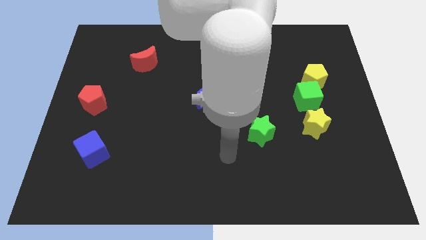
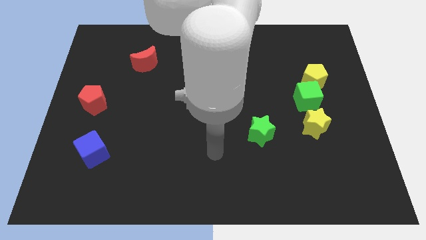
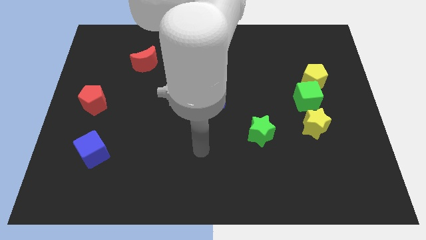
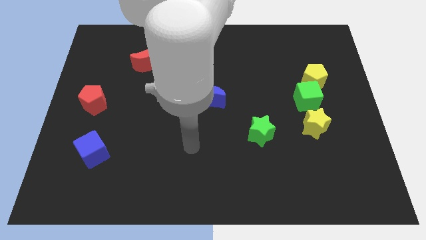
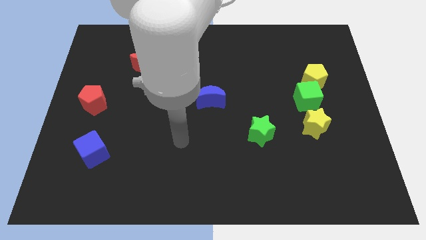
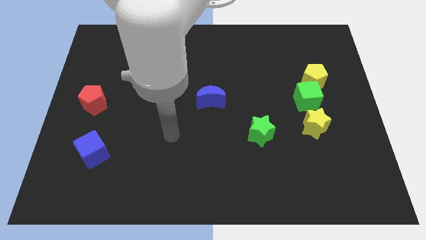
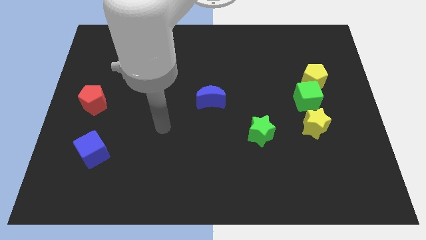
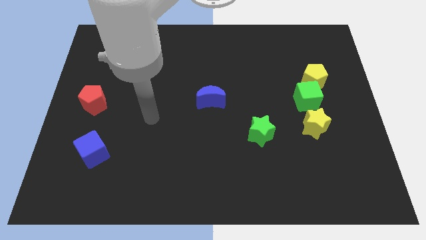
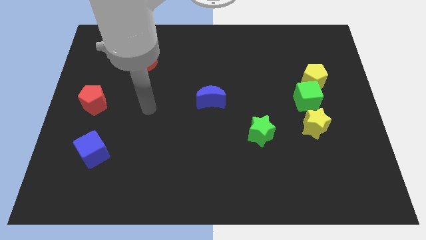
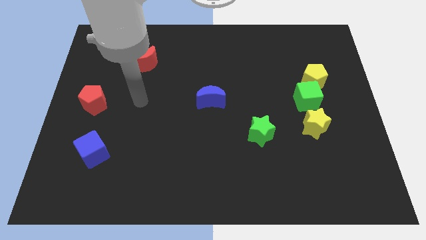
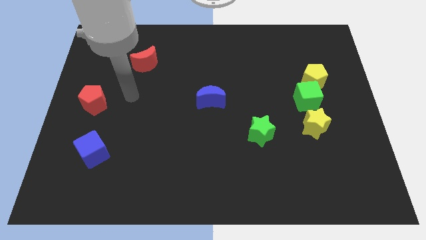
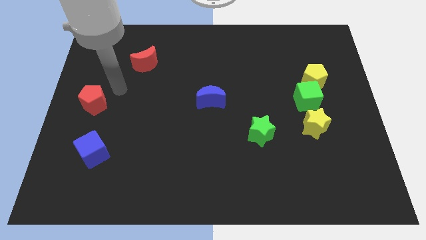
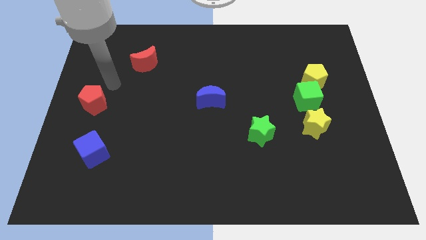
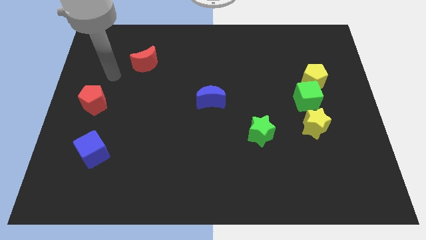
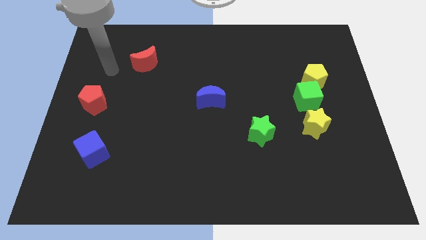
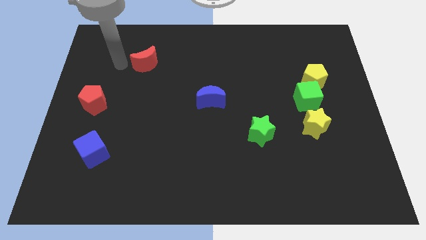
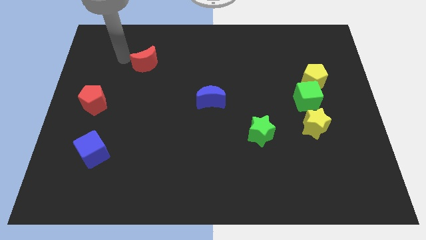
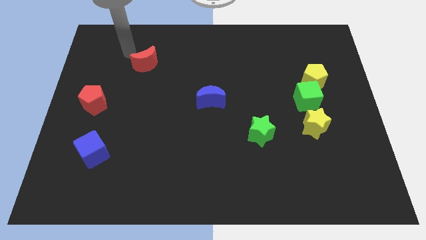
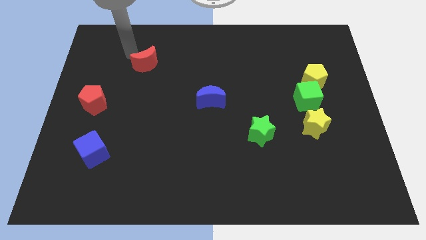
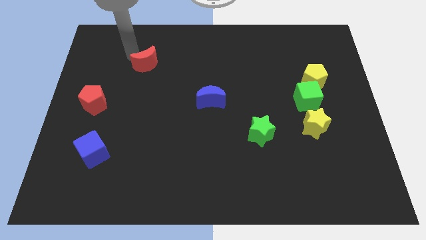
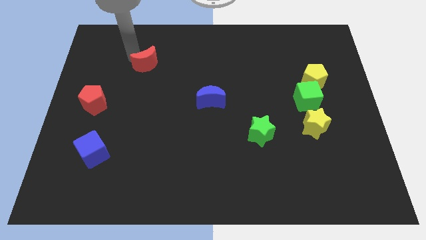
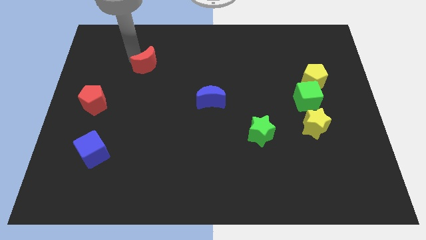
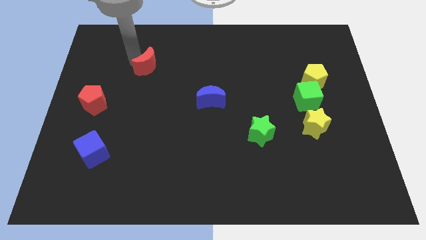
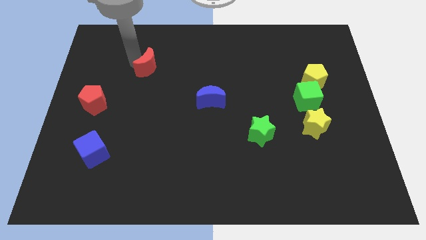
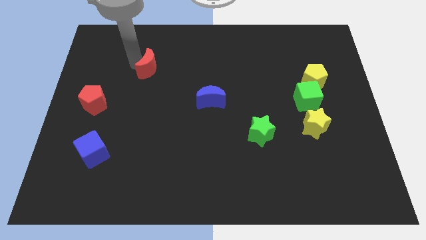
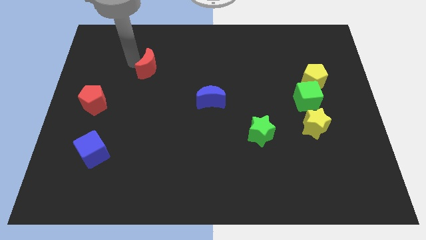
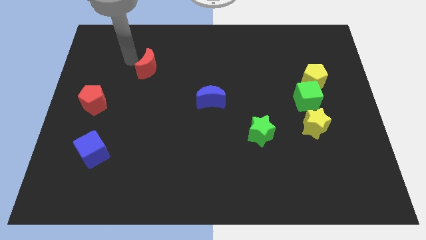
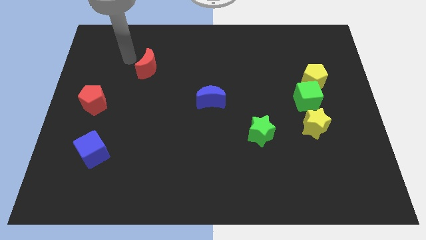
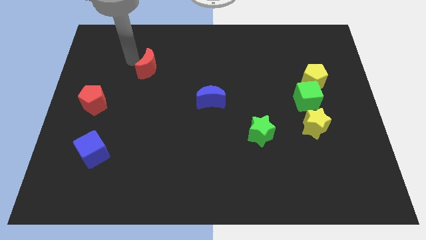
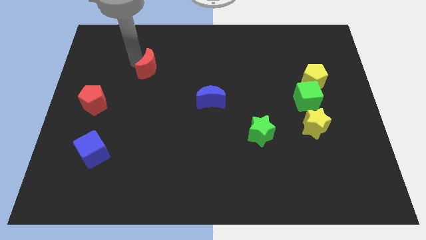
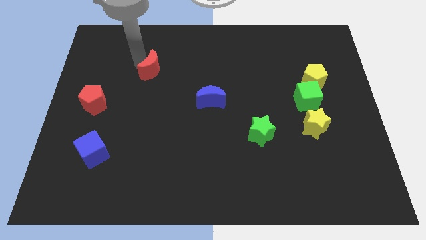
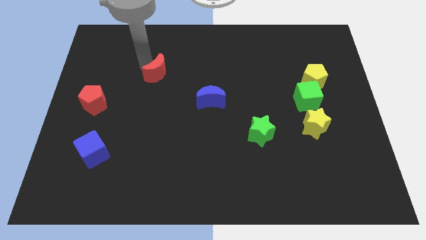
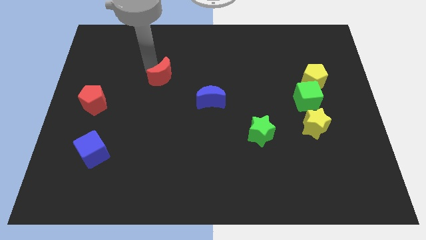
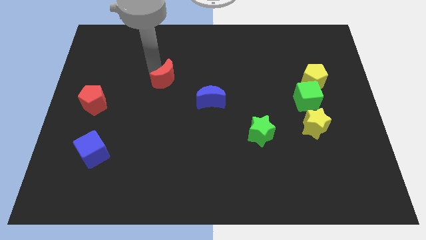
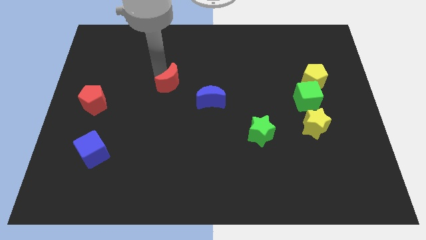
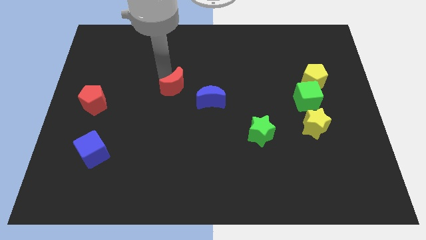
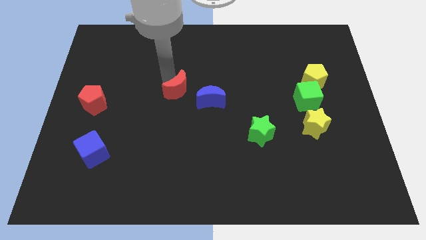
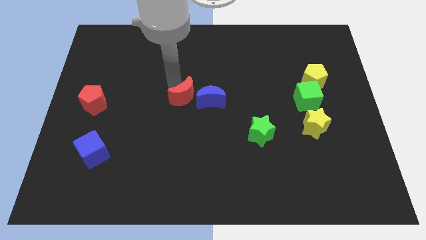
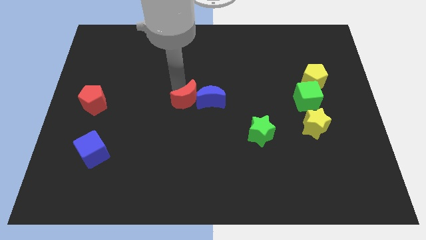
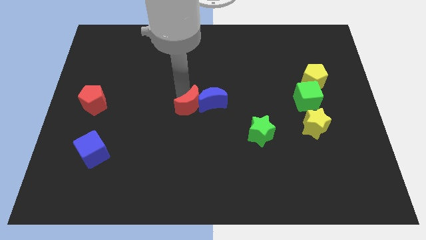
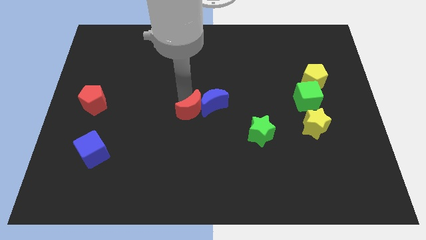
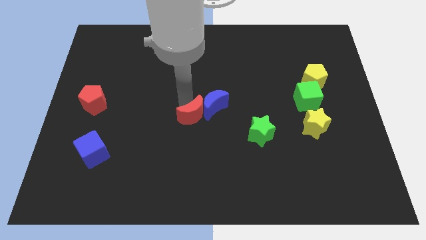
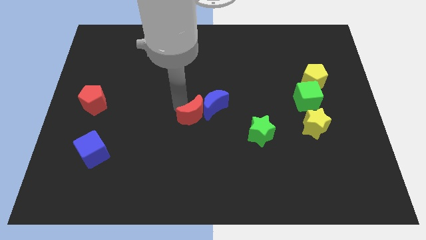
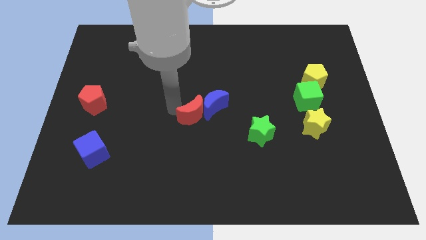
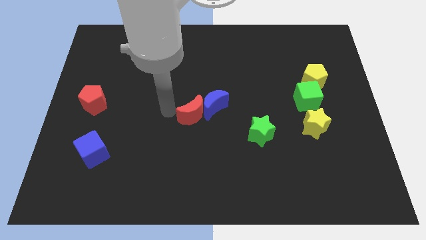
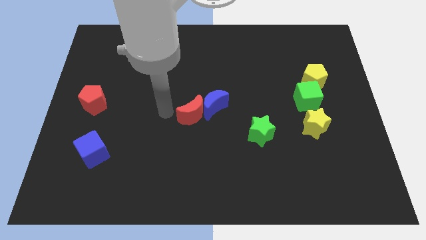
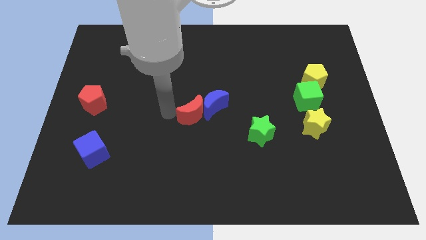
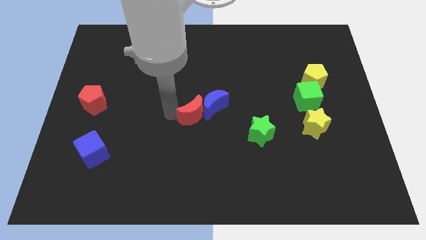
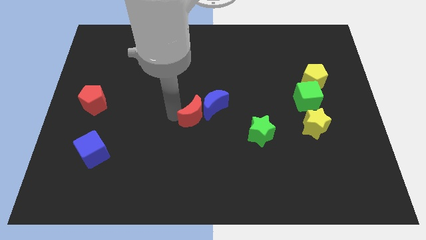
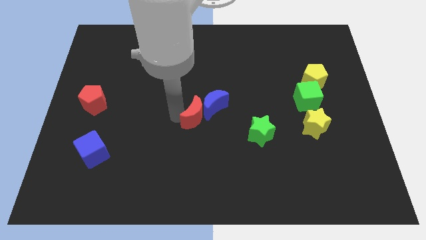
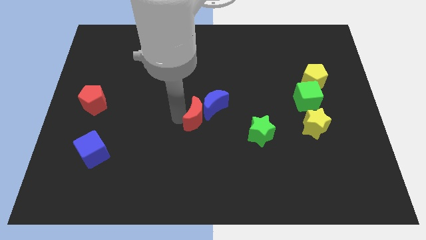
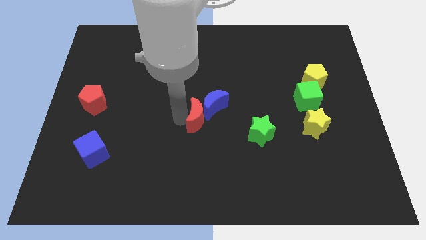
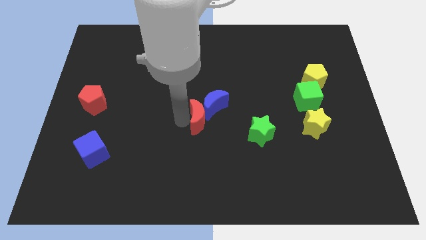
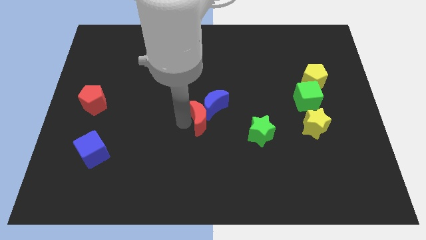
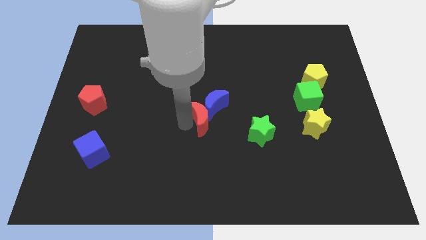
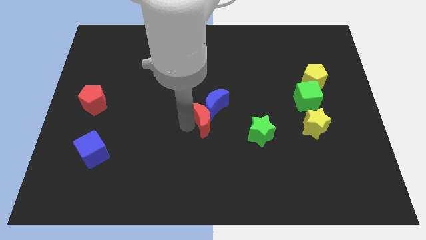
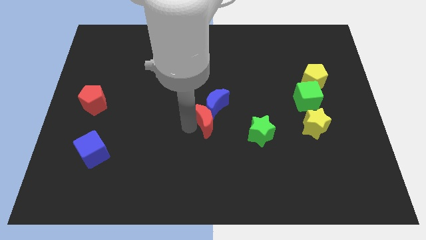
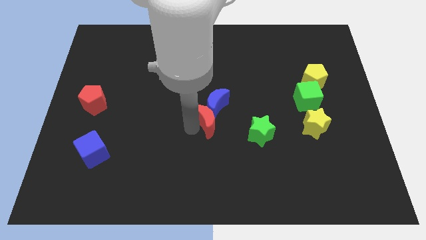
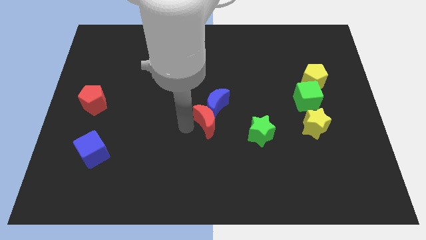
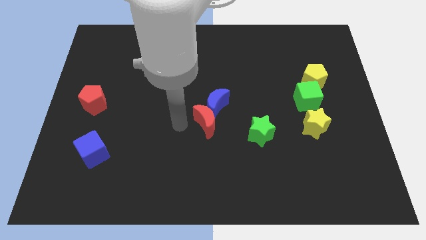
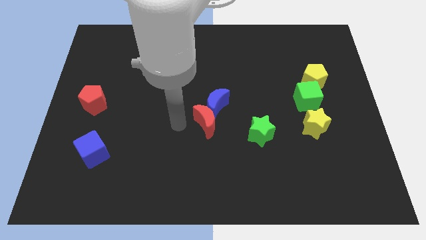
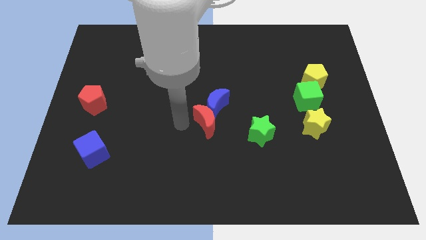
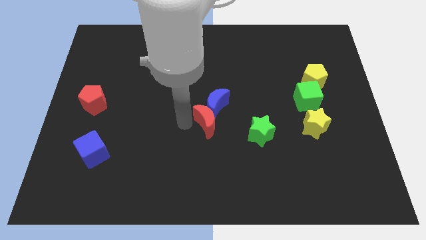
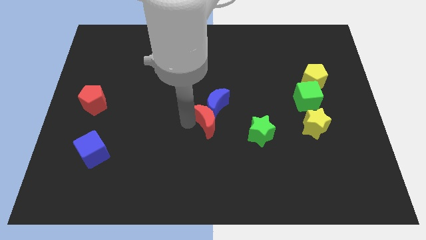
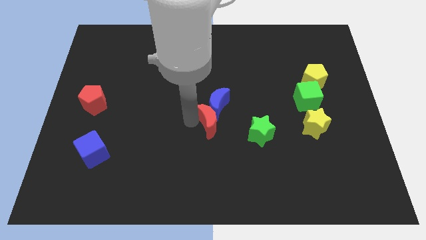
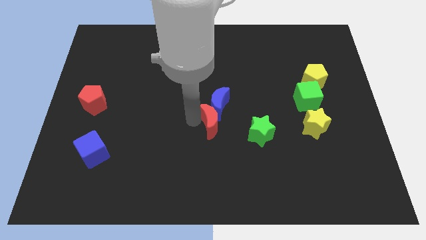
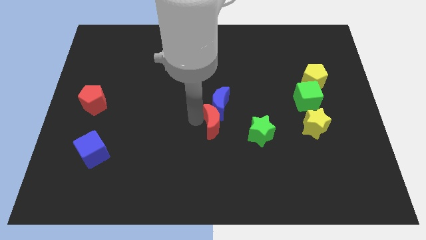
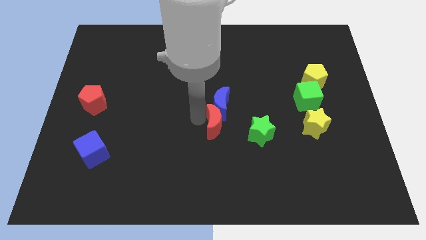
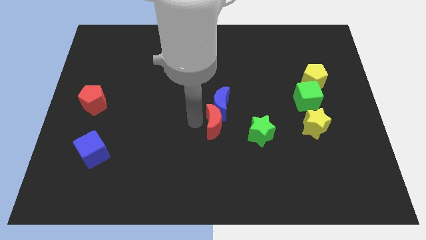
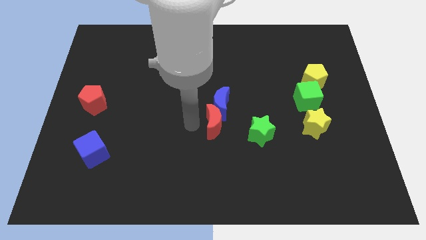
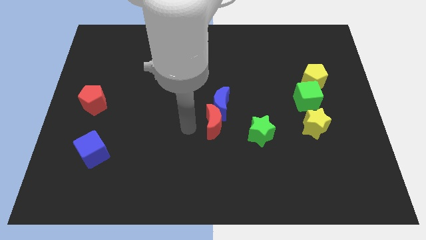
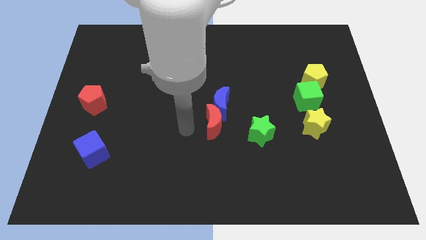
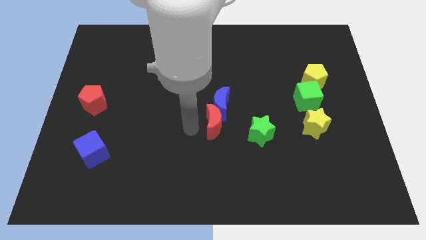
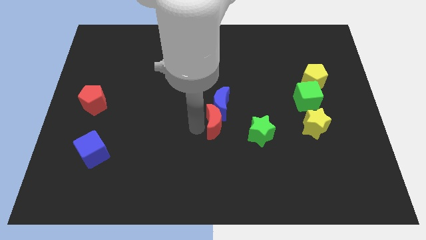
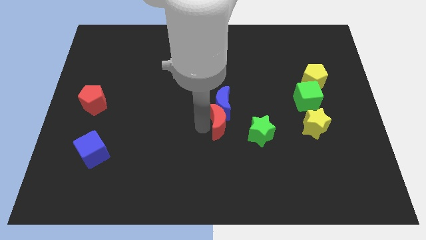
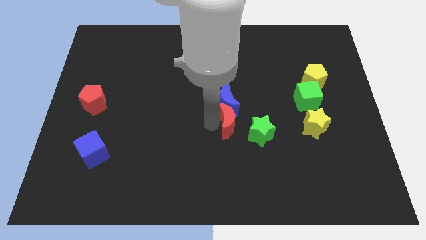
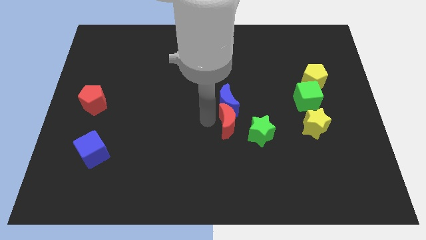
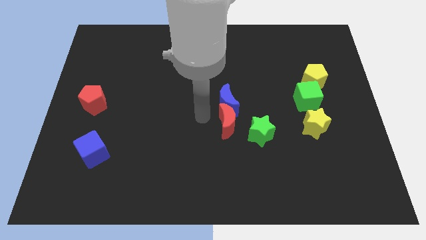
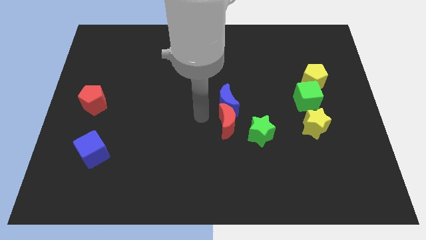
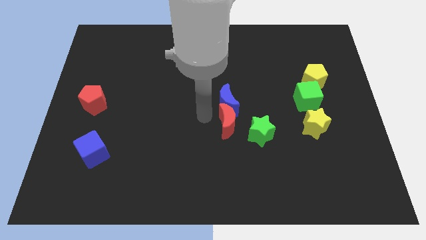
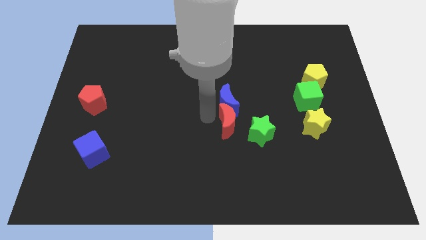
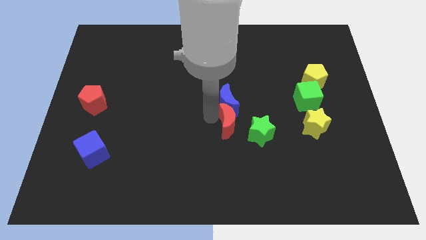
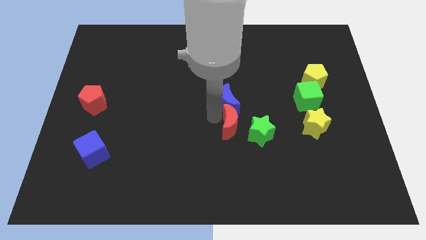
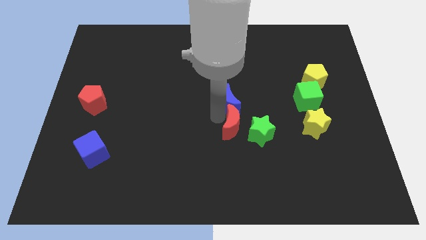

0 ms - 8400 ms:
move the red moon to the green star
